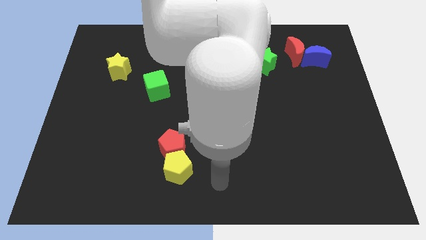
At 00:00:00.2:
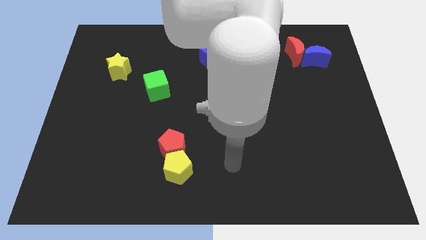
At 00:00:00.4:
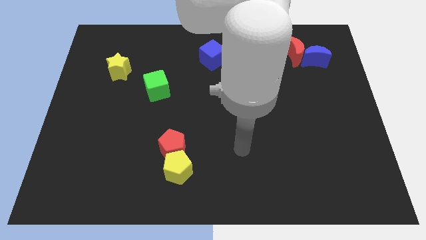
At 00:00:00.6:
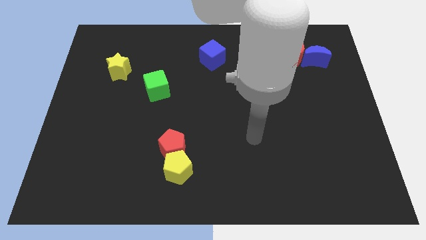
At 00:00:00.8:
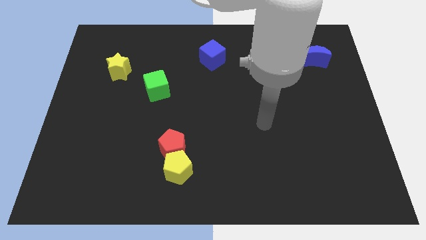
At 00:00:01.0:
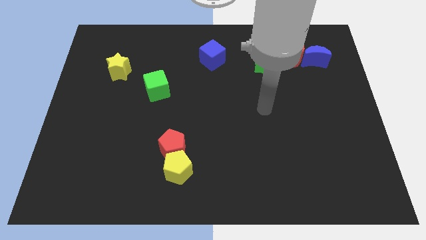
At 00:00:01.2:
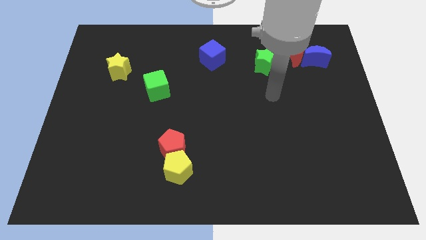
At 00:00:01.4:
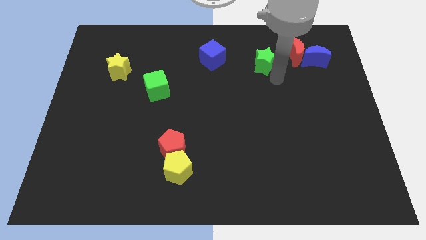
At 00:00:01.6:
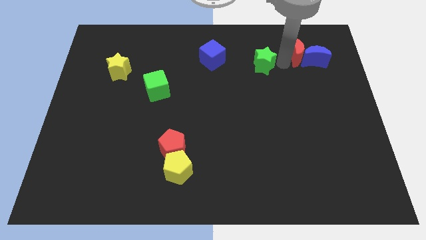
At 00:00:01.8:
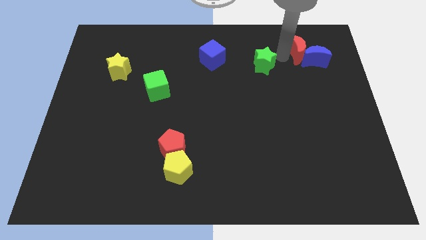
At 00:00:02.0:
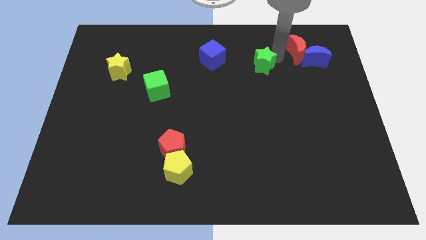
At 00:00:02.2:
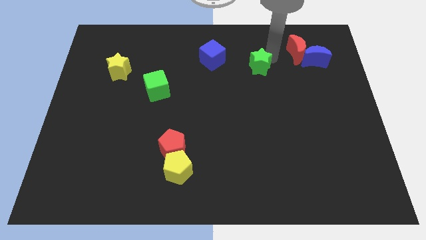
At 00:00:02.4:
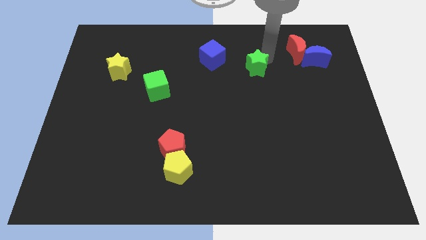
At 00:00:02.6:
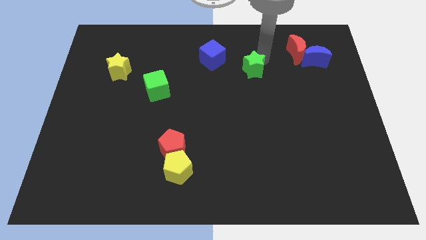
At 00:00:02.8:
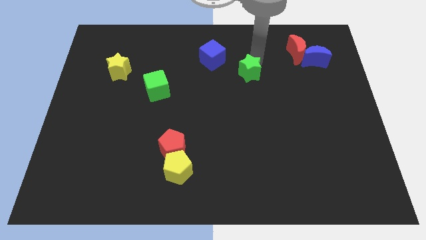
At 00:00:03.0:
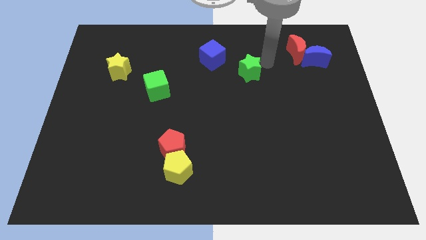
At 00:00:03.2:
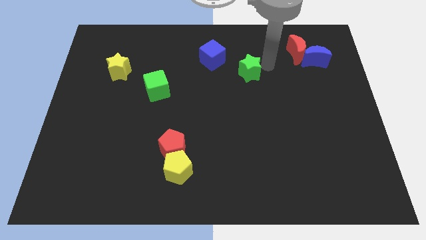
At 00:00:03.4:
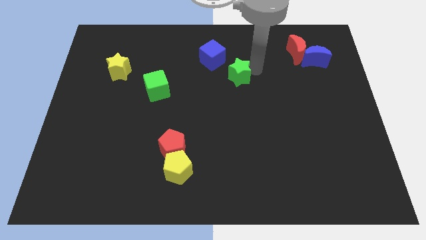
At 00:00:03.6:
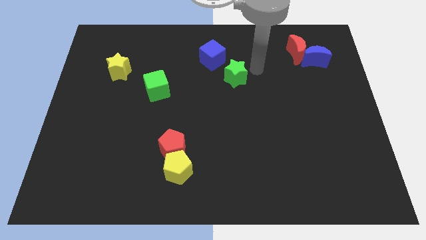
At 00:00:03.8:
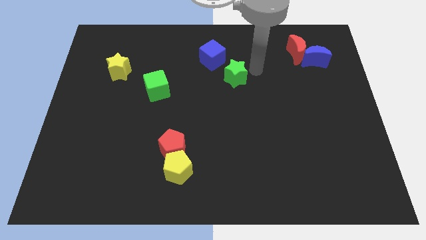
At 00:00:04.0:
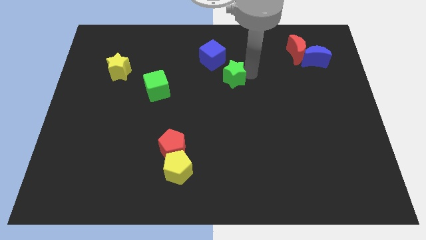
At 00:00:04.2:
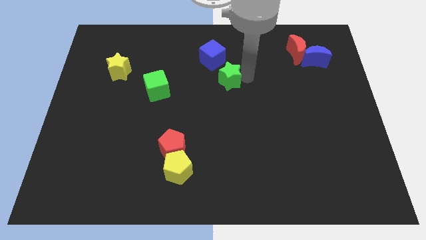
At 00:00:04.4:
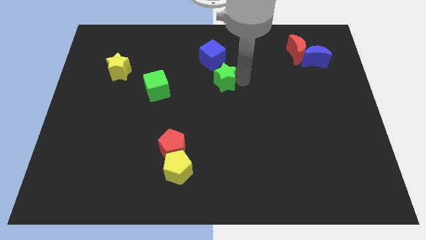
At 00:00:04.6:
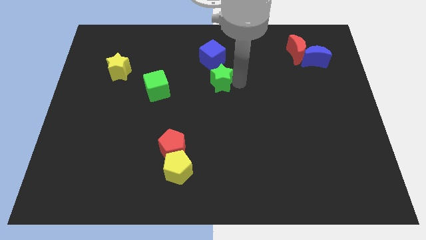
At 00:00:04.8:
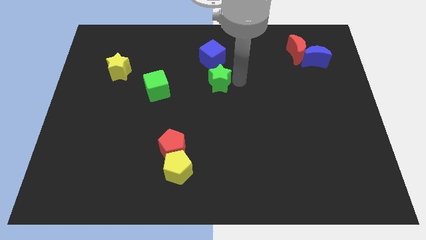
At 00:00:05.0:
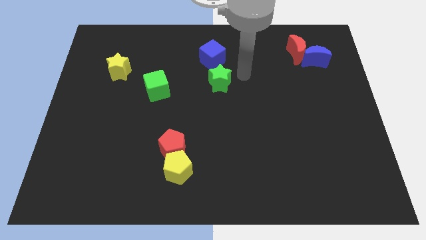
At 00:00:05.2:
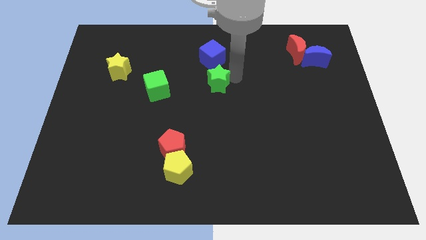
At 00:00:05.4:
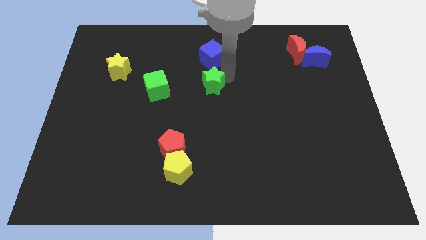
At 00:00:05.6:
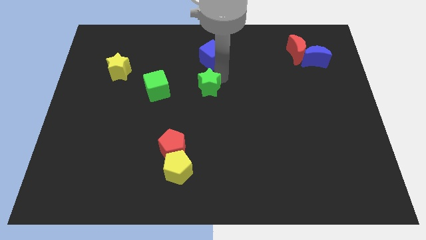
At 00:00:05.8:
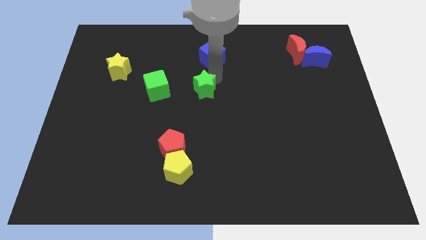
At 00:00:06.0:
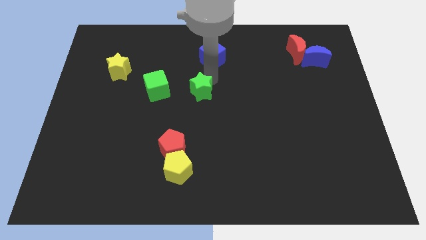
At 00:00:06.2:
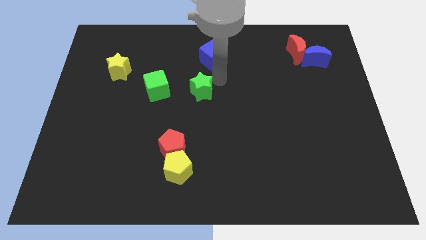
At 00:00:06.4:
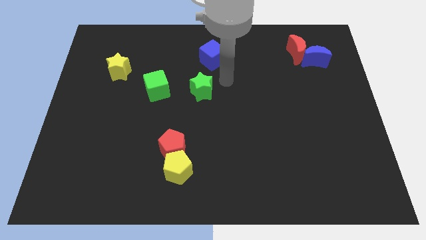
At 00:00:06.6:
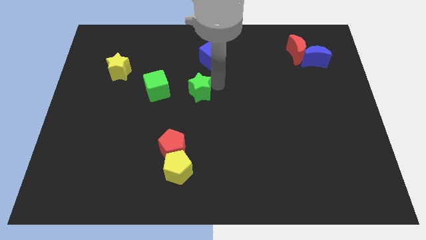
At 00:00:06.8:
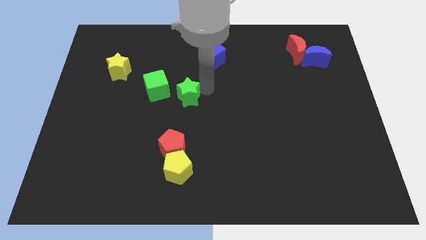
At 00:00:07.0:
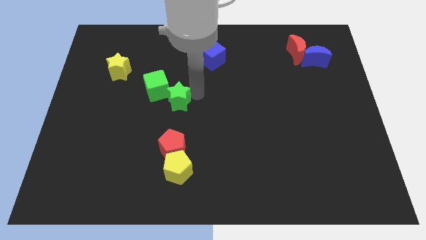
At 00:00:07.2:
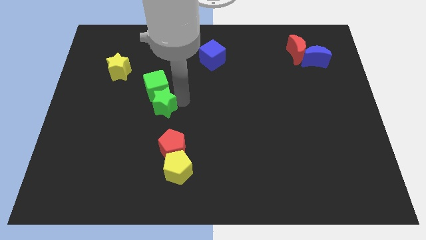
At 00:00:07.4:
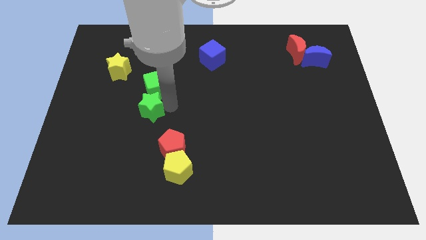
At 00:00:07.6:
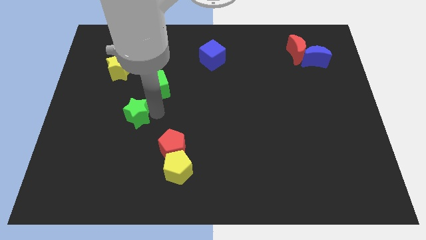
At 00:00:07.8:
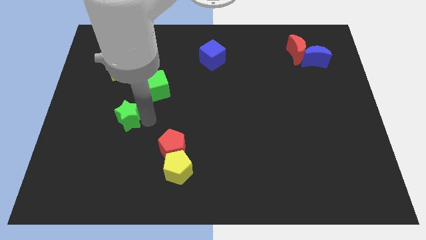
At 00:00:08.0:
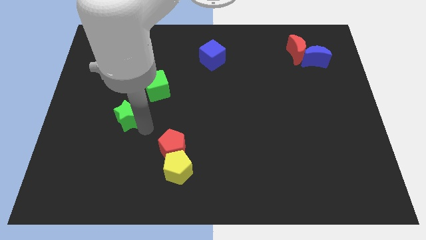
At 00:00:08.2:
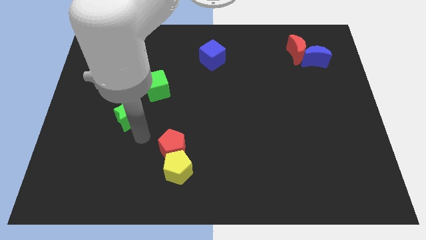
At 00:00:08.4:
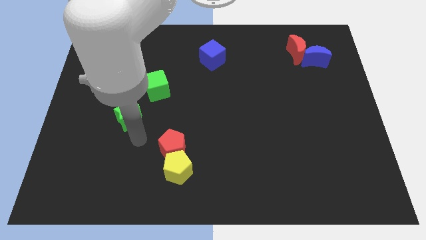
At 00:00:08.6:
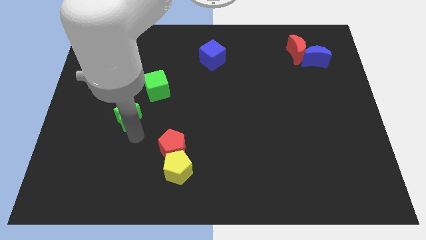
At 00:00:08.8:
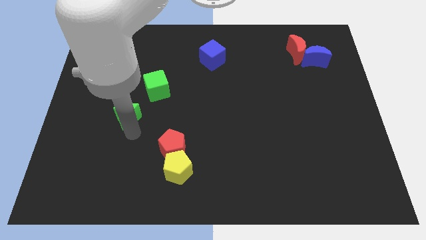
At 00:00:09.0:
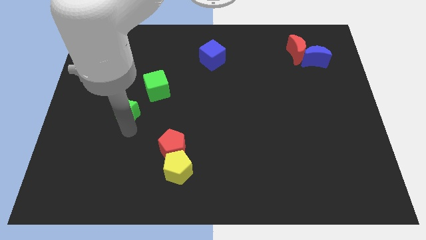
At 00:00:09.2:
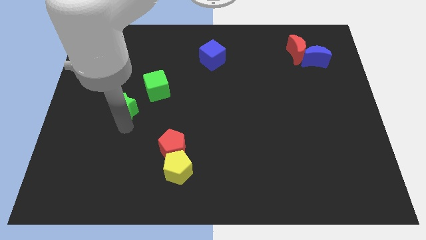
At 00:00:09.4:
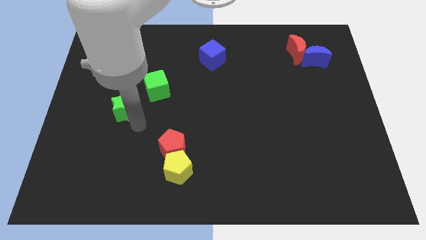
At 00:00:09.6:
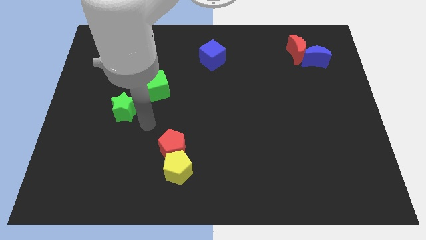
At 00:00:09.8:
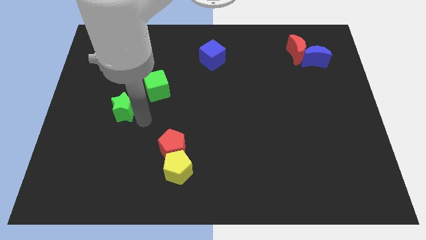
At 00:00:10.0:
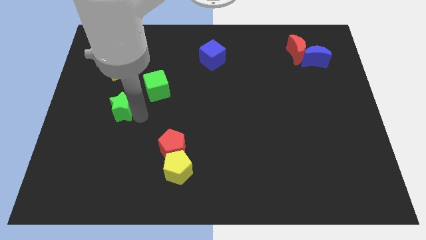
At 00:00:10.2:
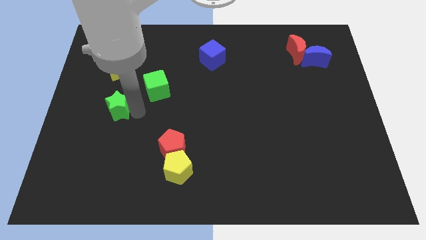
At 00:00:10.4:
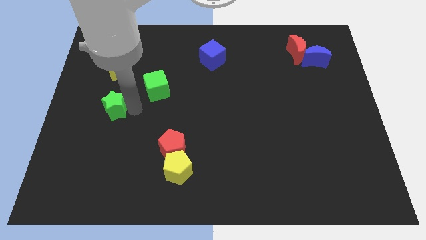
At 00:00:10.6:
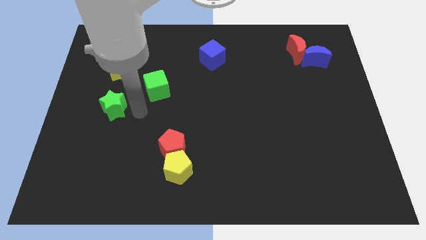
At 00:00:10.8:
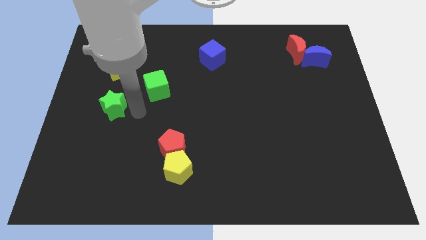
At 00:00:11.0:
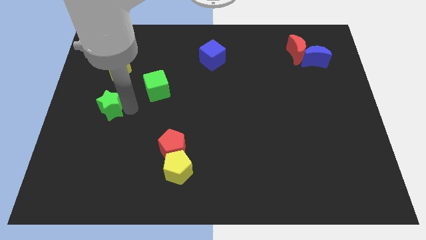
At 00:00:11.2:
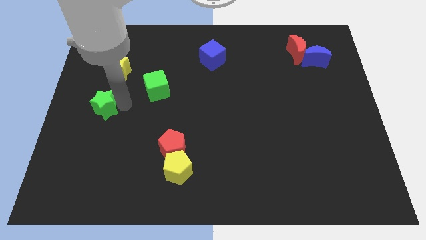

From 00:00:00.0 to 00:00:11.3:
put the green star to the left side of the board

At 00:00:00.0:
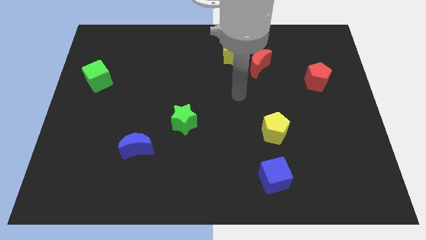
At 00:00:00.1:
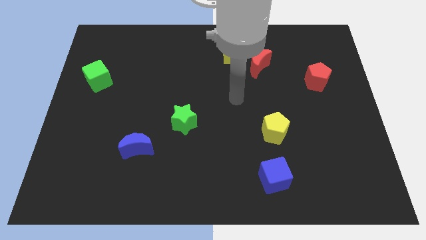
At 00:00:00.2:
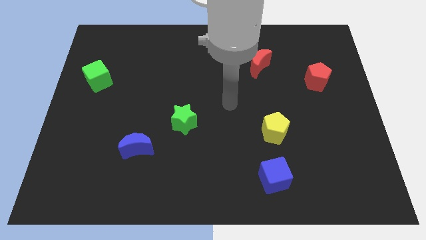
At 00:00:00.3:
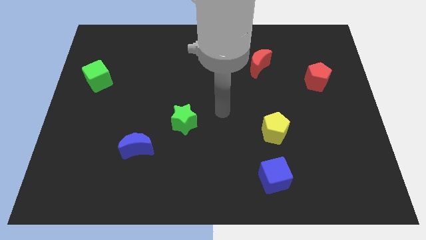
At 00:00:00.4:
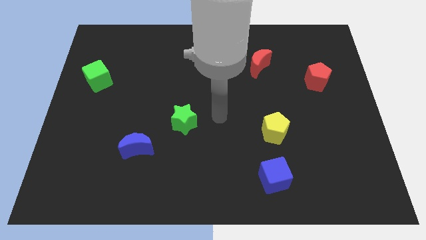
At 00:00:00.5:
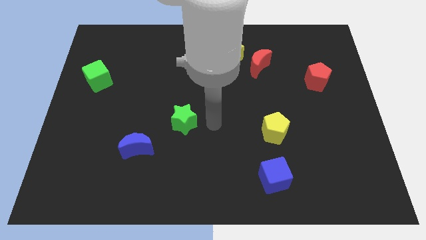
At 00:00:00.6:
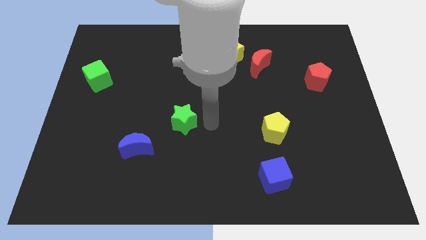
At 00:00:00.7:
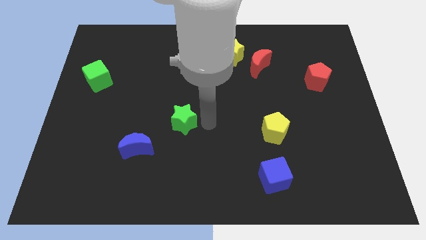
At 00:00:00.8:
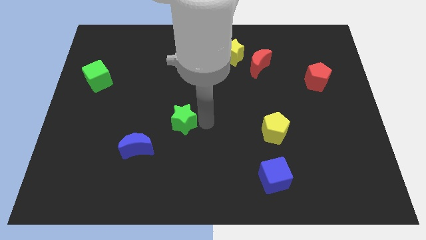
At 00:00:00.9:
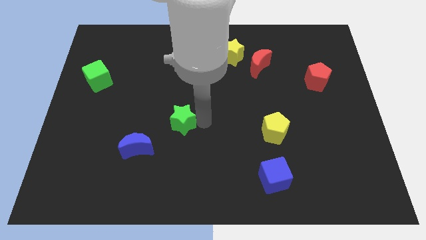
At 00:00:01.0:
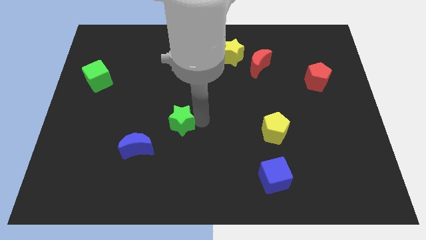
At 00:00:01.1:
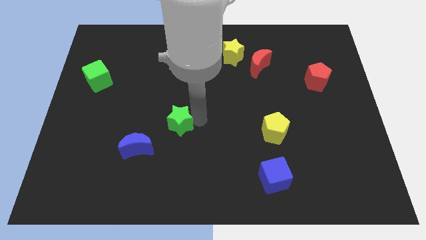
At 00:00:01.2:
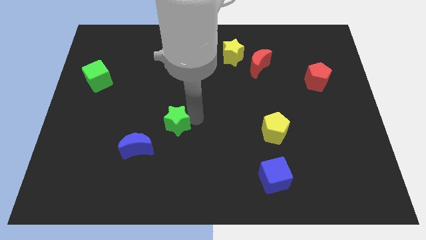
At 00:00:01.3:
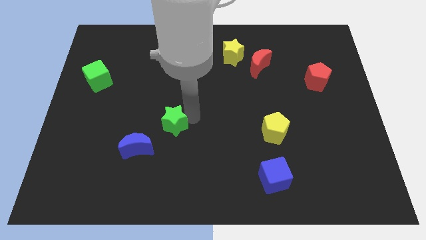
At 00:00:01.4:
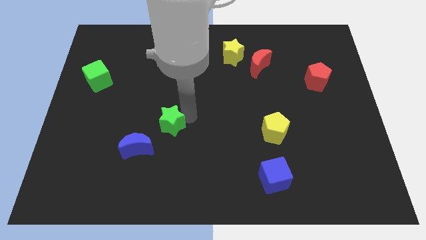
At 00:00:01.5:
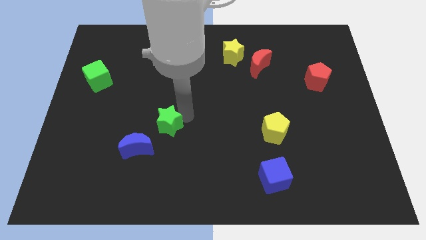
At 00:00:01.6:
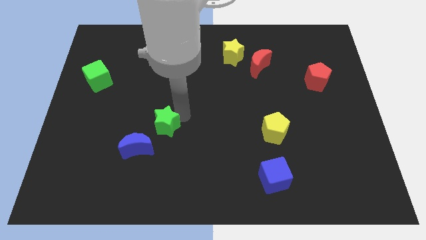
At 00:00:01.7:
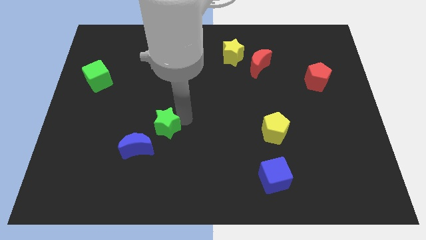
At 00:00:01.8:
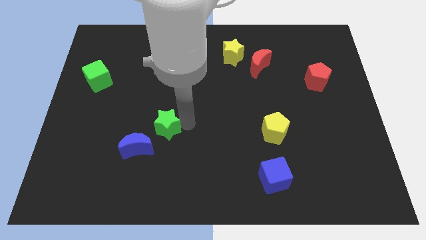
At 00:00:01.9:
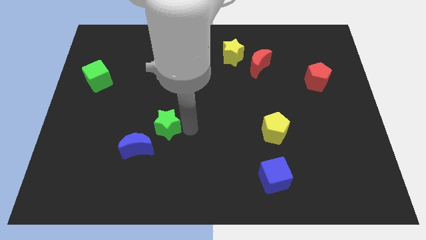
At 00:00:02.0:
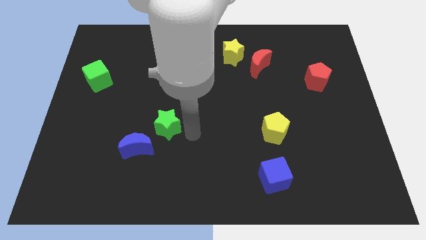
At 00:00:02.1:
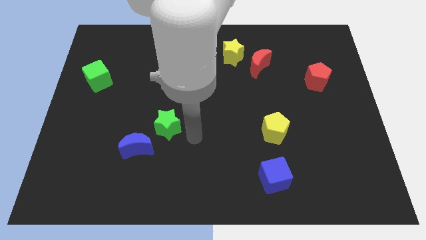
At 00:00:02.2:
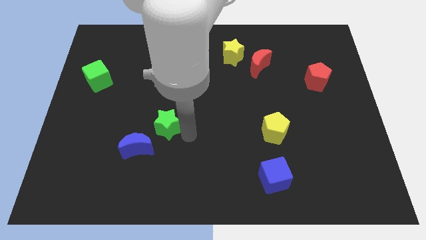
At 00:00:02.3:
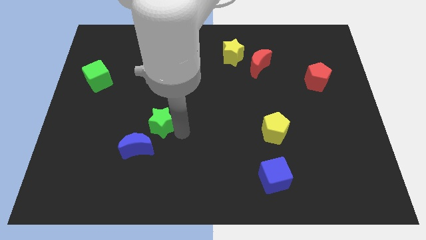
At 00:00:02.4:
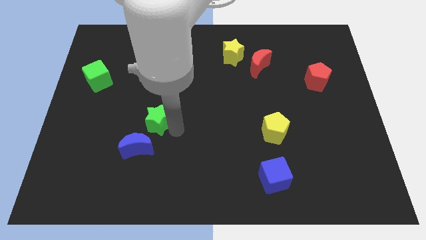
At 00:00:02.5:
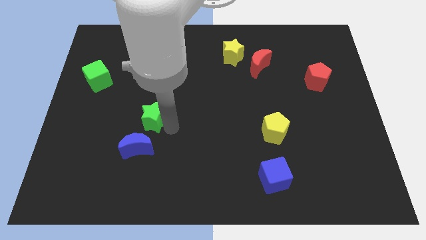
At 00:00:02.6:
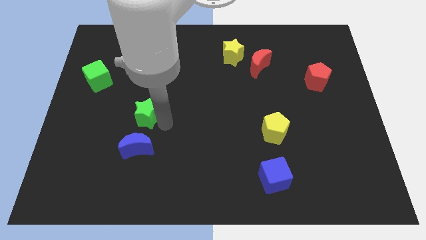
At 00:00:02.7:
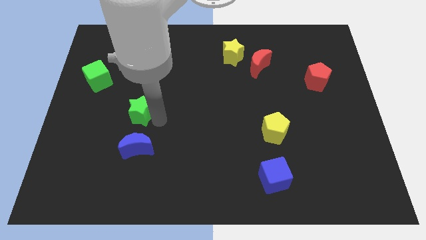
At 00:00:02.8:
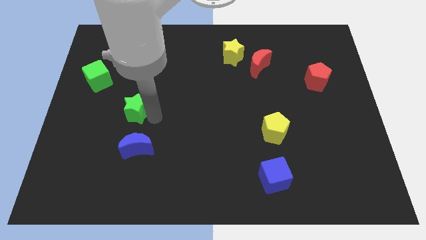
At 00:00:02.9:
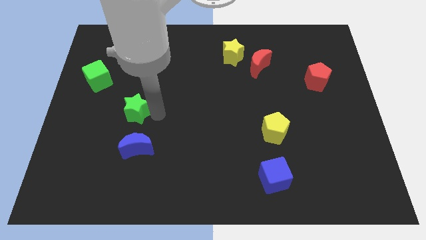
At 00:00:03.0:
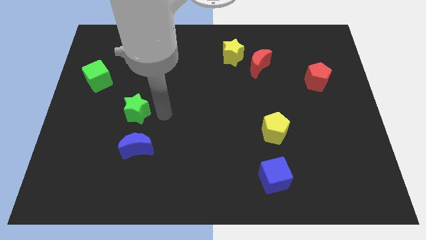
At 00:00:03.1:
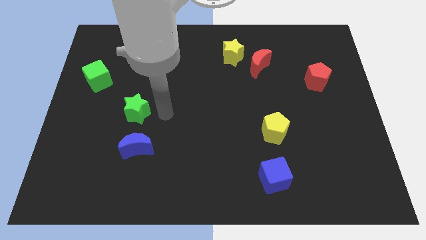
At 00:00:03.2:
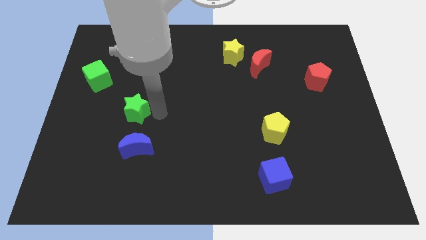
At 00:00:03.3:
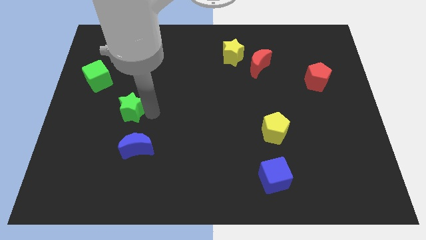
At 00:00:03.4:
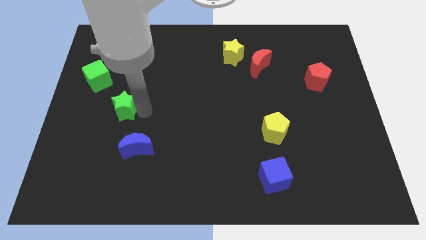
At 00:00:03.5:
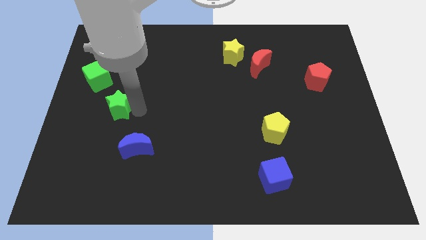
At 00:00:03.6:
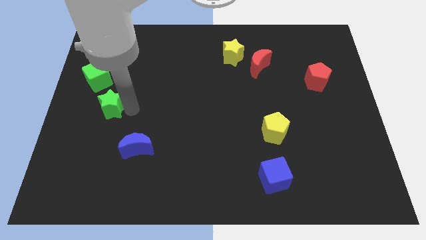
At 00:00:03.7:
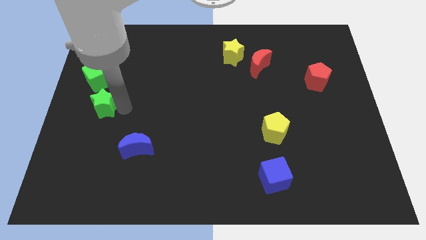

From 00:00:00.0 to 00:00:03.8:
slide the green star to the left side
